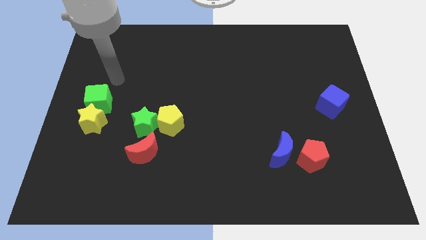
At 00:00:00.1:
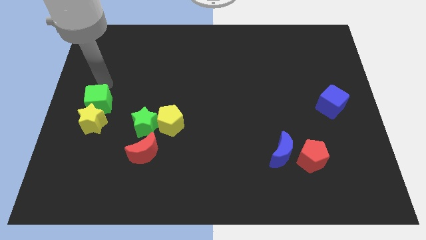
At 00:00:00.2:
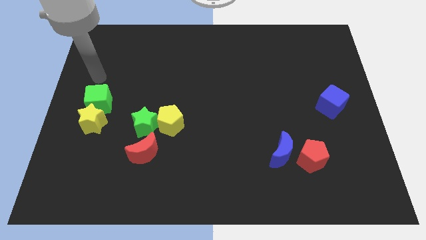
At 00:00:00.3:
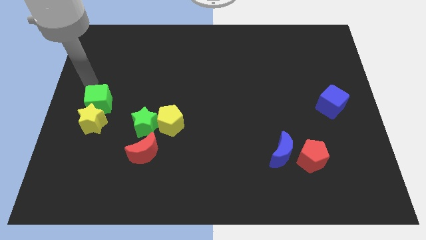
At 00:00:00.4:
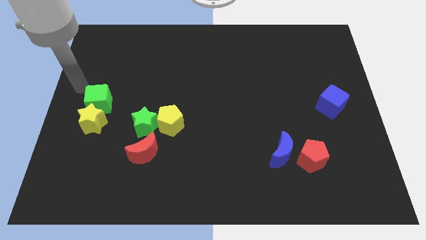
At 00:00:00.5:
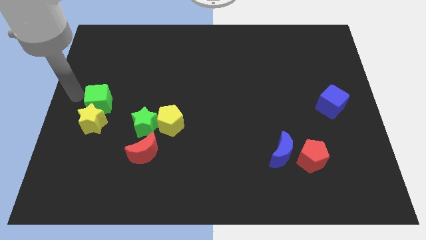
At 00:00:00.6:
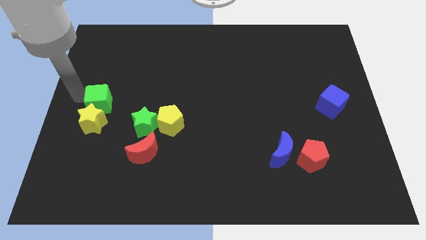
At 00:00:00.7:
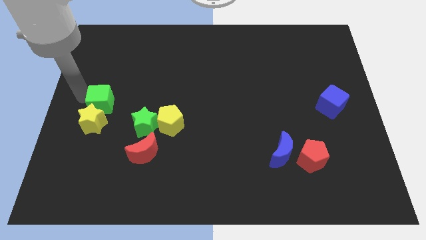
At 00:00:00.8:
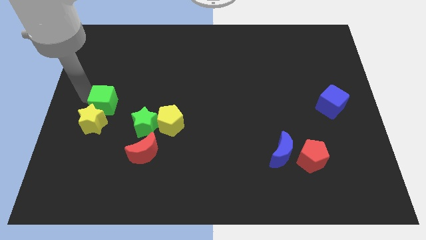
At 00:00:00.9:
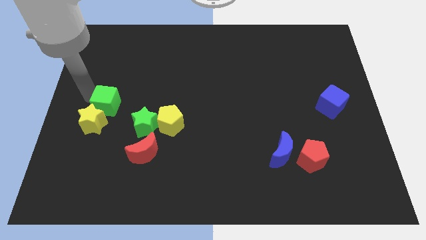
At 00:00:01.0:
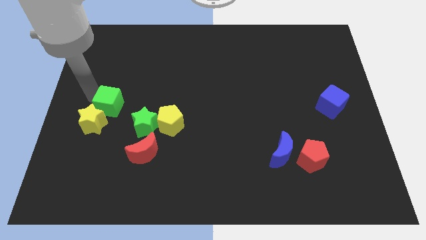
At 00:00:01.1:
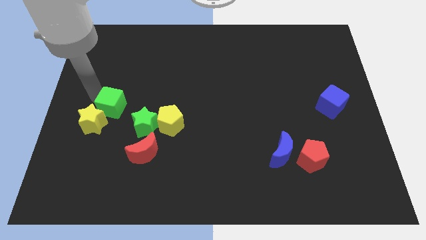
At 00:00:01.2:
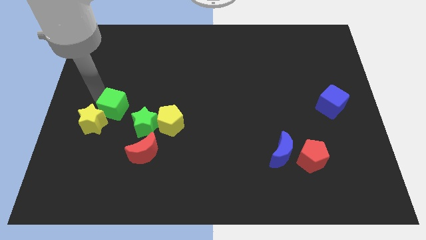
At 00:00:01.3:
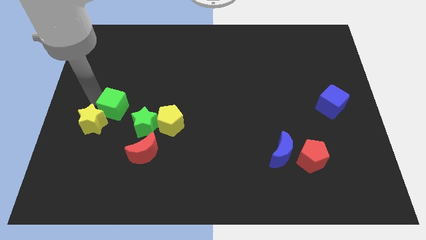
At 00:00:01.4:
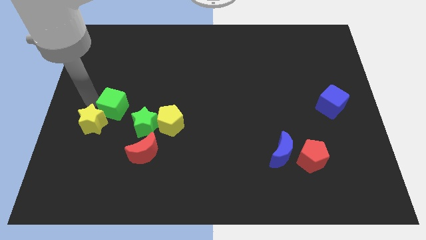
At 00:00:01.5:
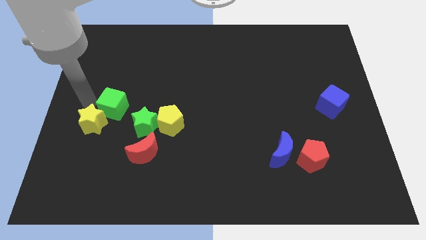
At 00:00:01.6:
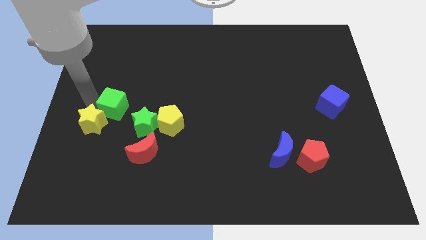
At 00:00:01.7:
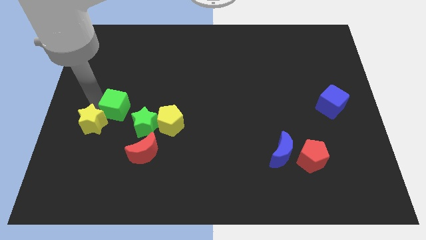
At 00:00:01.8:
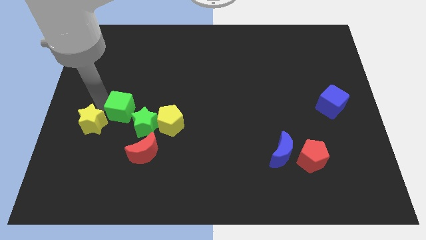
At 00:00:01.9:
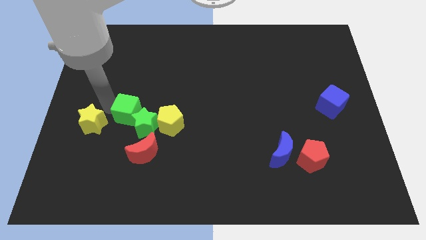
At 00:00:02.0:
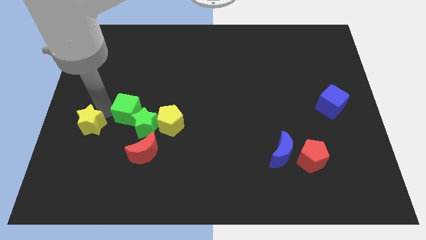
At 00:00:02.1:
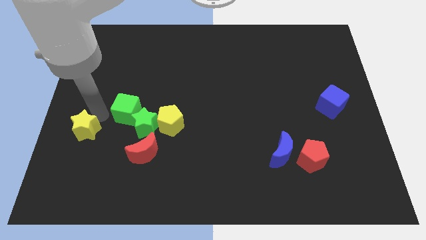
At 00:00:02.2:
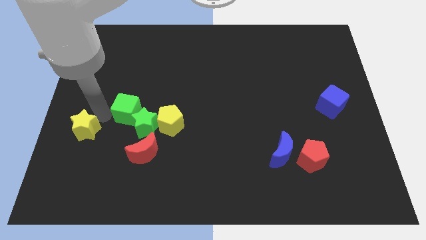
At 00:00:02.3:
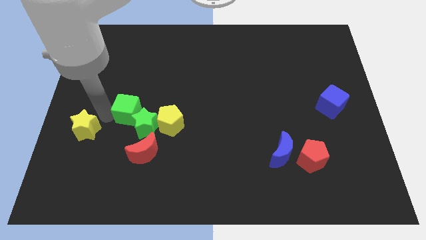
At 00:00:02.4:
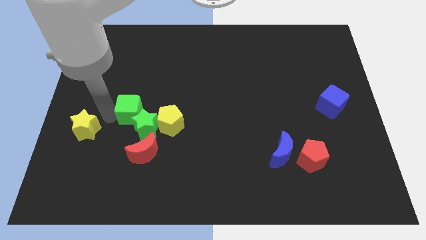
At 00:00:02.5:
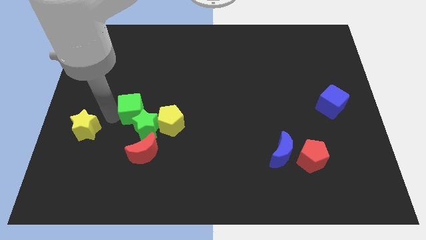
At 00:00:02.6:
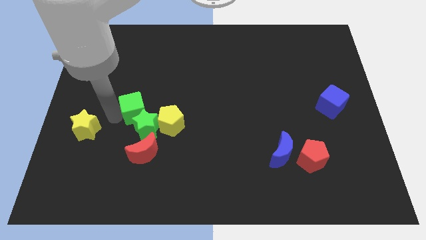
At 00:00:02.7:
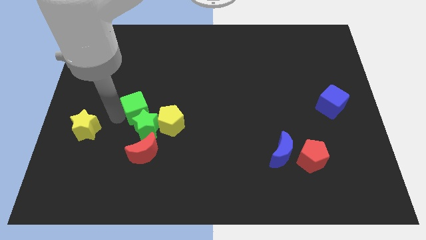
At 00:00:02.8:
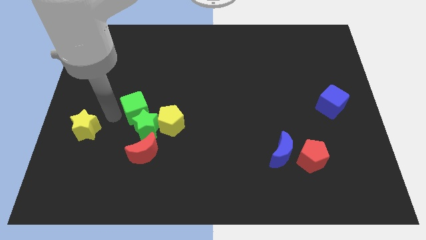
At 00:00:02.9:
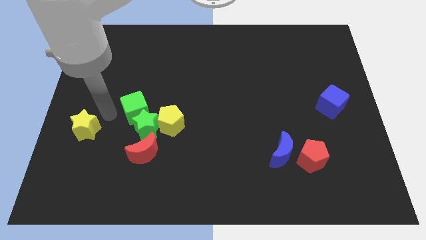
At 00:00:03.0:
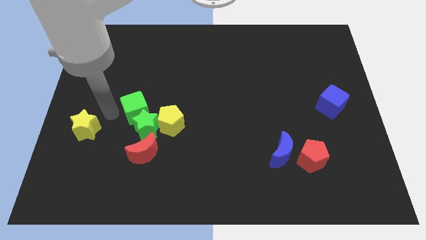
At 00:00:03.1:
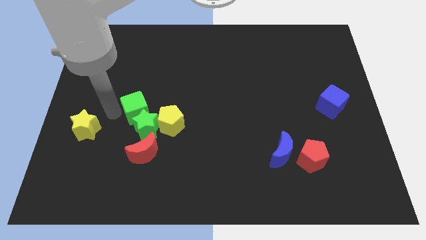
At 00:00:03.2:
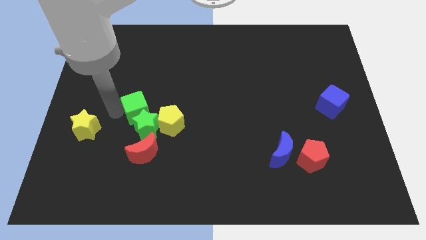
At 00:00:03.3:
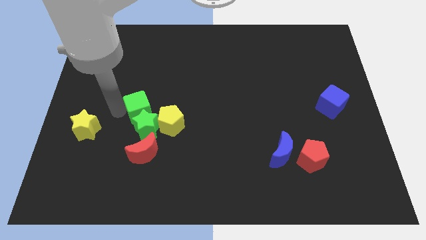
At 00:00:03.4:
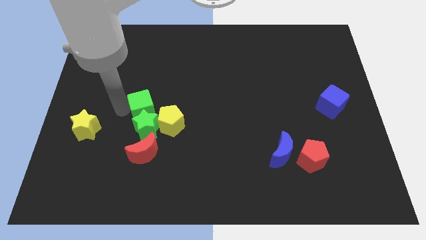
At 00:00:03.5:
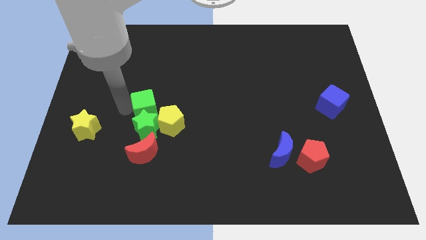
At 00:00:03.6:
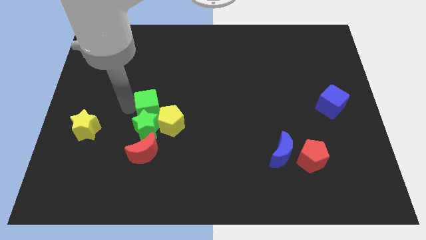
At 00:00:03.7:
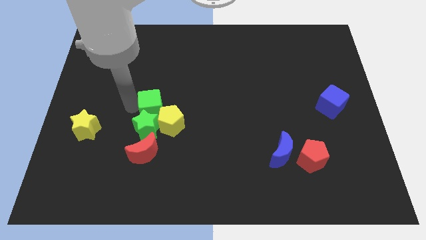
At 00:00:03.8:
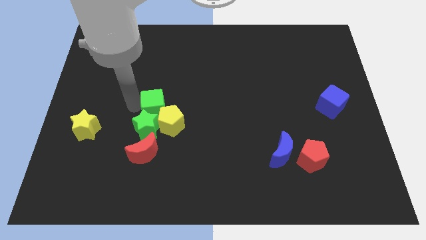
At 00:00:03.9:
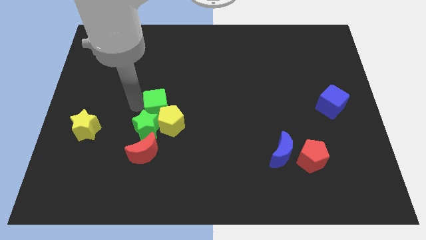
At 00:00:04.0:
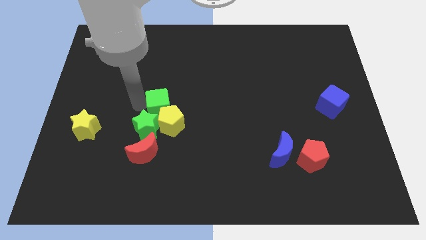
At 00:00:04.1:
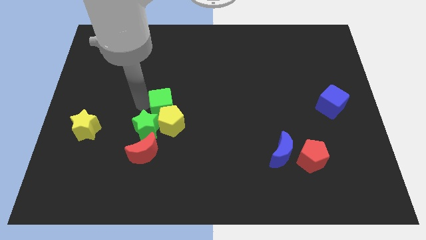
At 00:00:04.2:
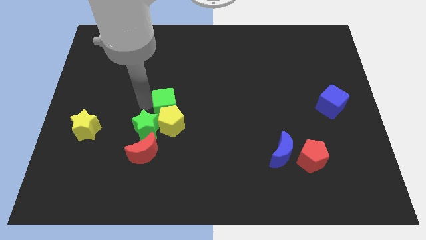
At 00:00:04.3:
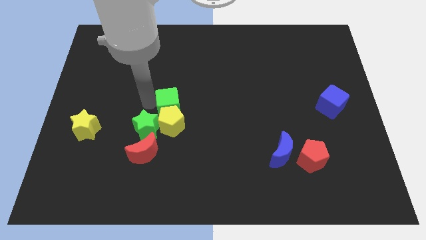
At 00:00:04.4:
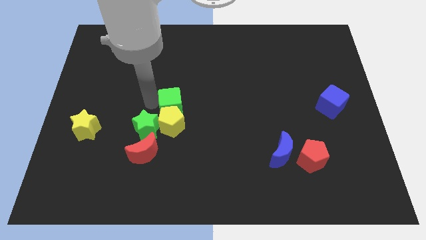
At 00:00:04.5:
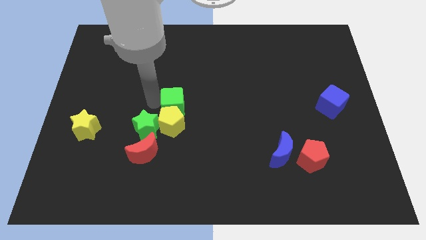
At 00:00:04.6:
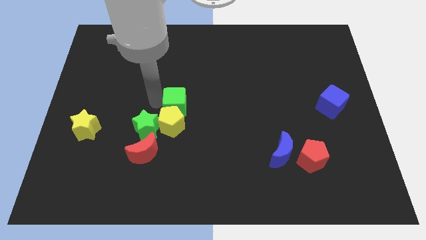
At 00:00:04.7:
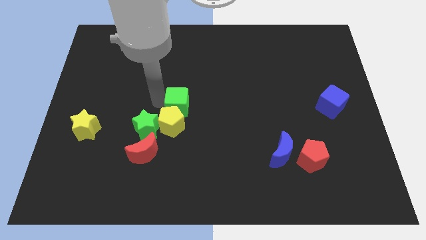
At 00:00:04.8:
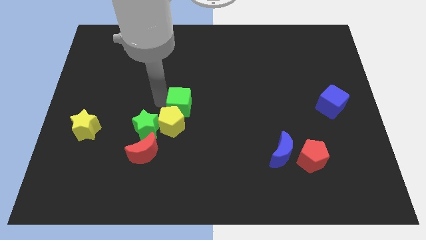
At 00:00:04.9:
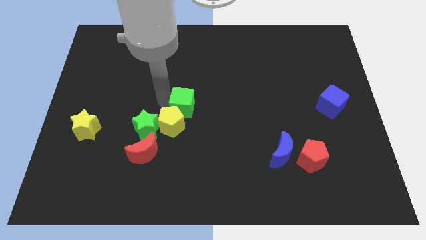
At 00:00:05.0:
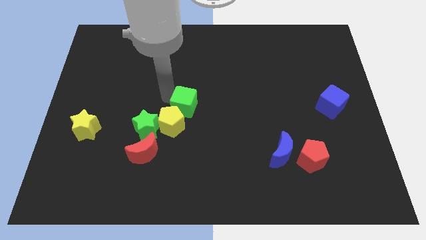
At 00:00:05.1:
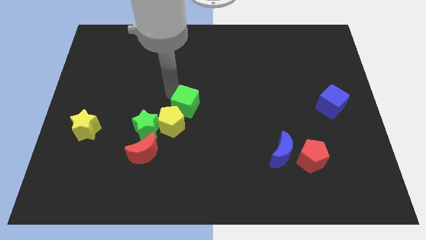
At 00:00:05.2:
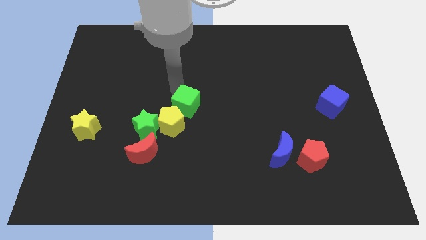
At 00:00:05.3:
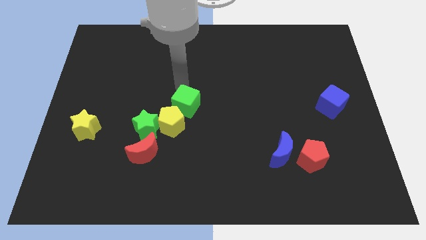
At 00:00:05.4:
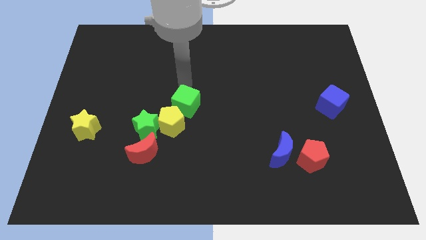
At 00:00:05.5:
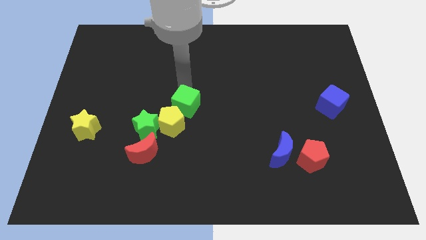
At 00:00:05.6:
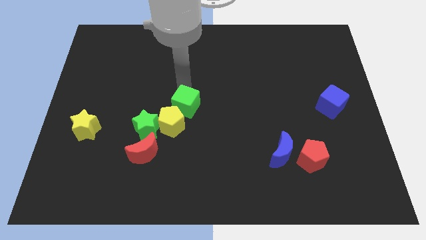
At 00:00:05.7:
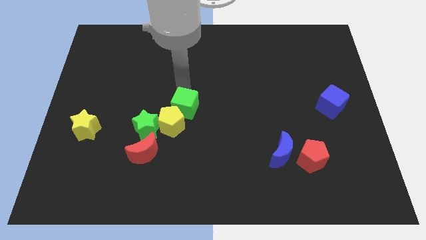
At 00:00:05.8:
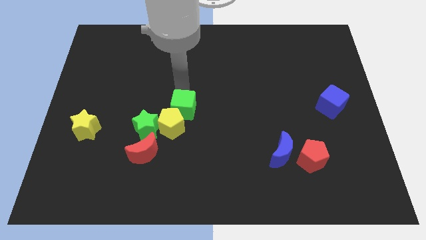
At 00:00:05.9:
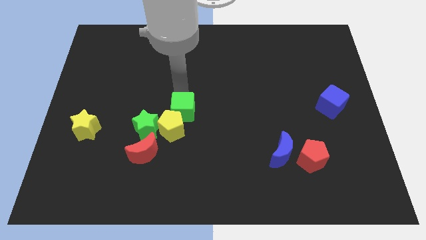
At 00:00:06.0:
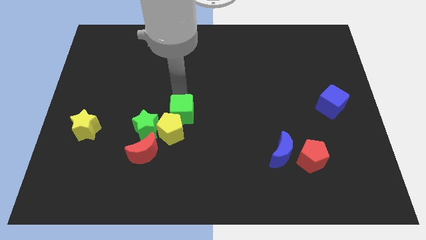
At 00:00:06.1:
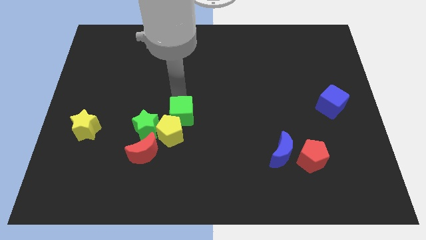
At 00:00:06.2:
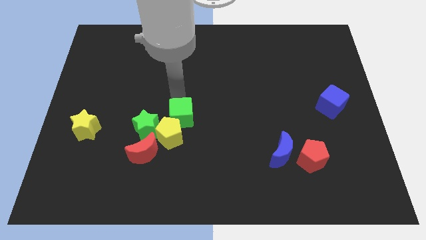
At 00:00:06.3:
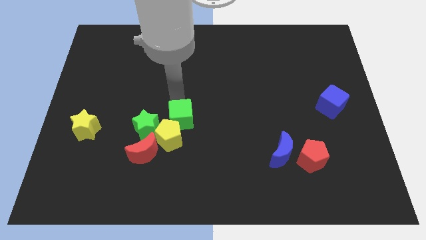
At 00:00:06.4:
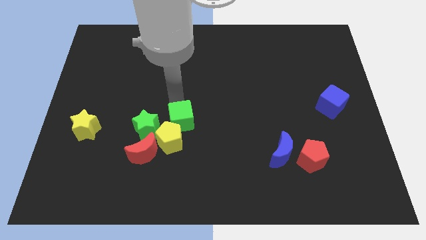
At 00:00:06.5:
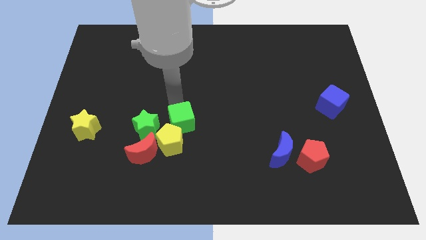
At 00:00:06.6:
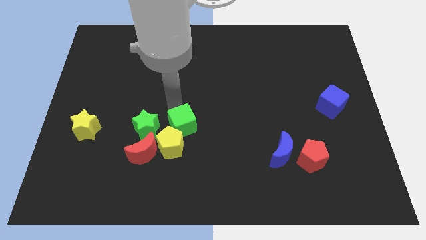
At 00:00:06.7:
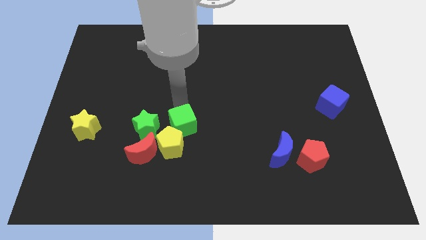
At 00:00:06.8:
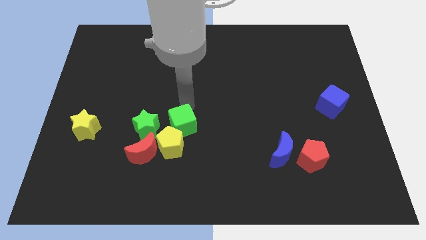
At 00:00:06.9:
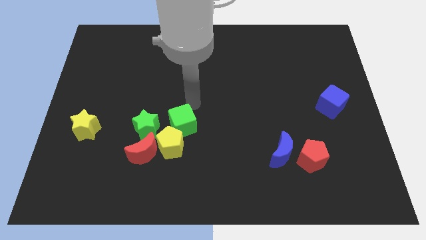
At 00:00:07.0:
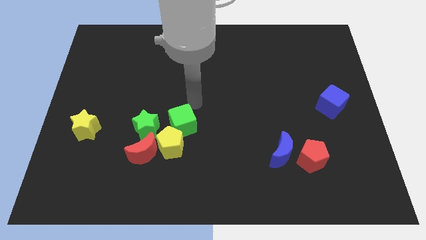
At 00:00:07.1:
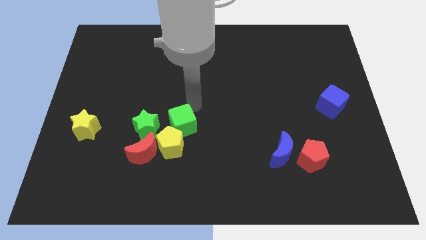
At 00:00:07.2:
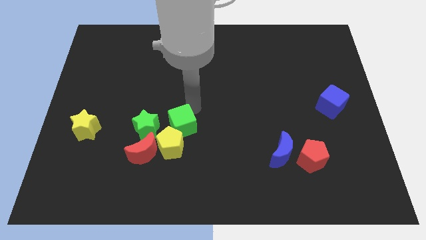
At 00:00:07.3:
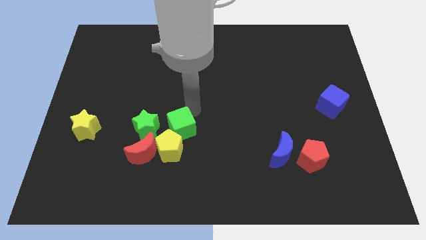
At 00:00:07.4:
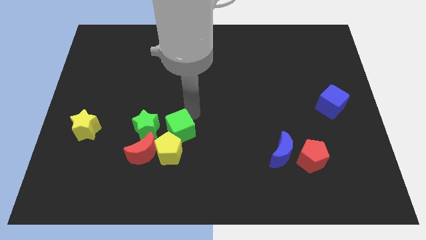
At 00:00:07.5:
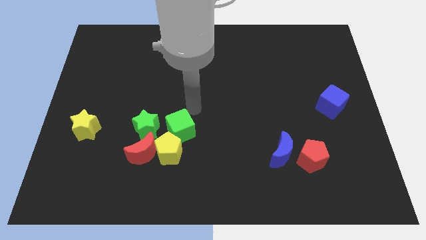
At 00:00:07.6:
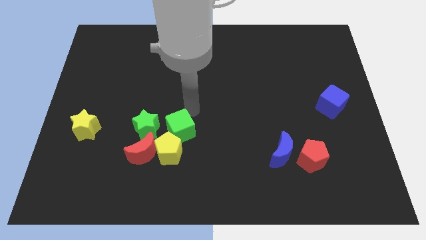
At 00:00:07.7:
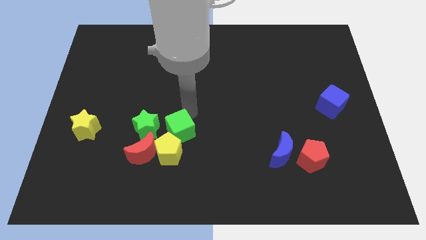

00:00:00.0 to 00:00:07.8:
move the green cube diagonally down and to the right of the green star
